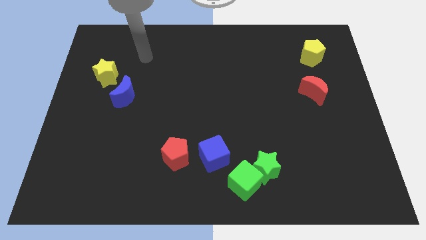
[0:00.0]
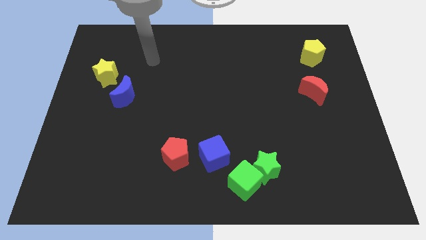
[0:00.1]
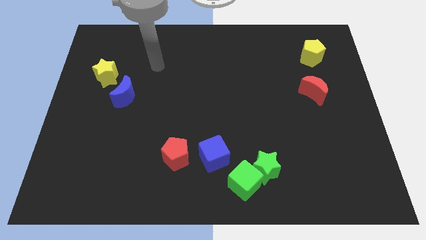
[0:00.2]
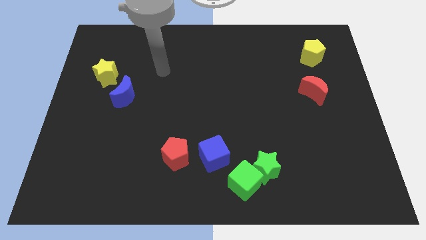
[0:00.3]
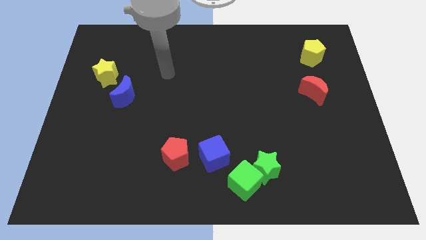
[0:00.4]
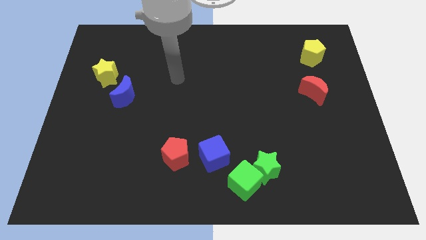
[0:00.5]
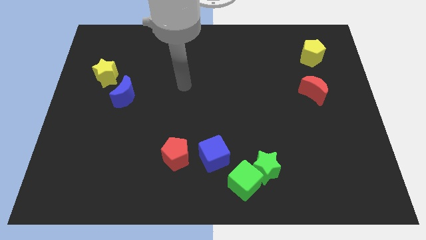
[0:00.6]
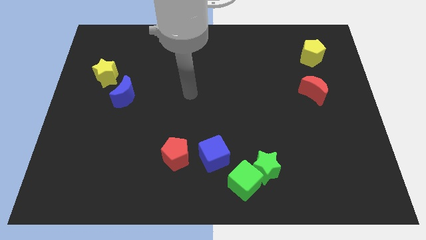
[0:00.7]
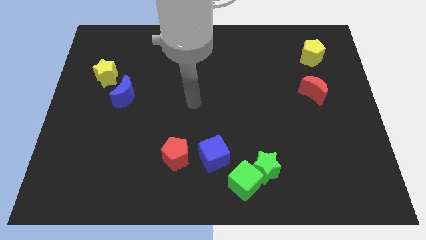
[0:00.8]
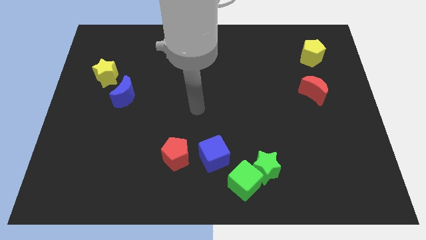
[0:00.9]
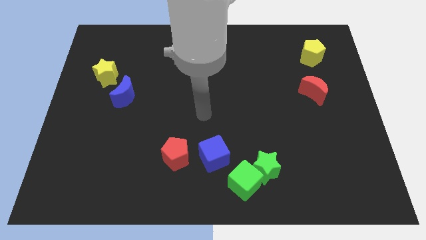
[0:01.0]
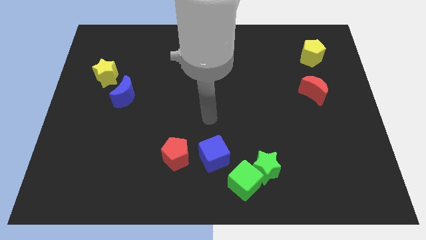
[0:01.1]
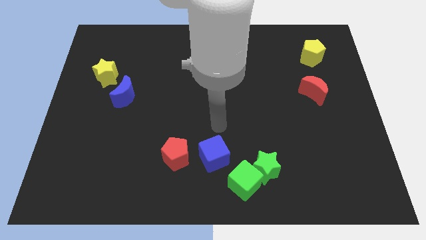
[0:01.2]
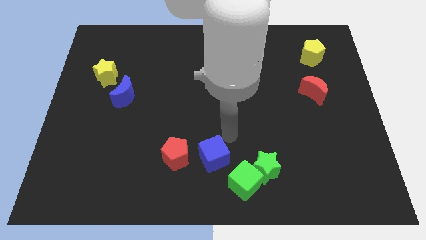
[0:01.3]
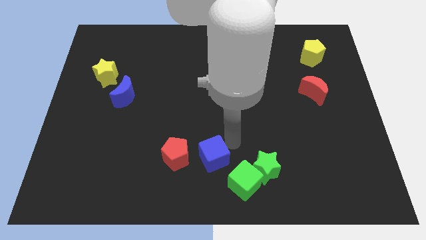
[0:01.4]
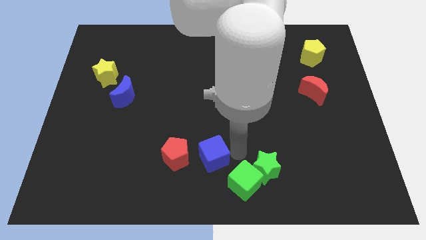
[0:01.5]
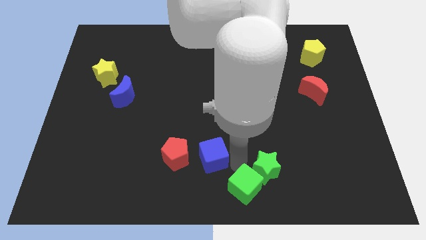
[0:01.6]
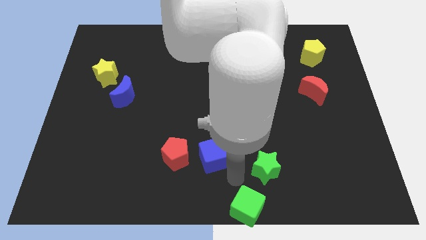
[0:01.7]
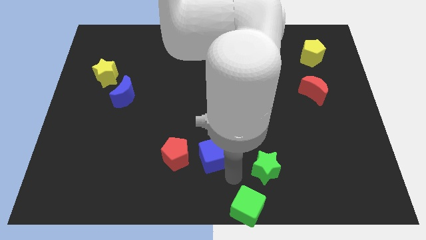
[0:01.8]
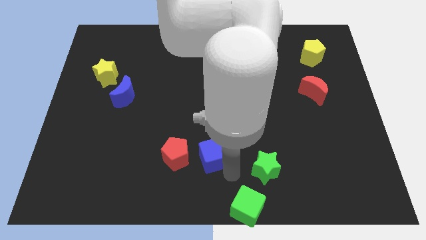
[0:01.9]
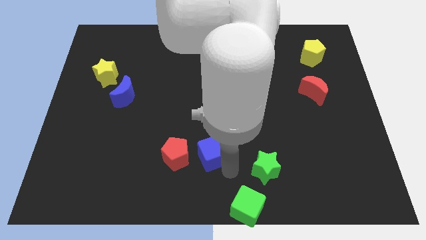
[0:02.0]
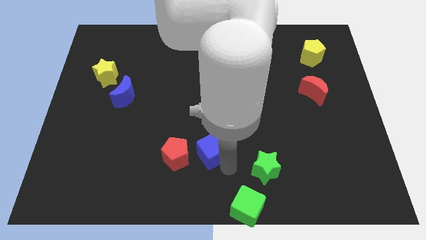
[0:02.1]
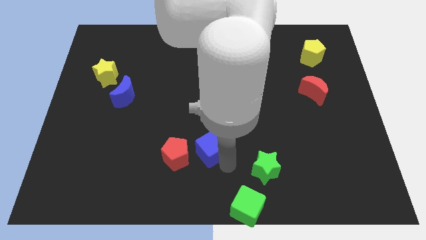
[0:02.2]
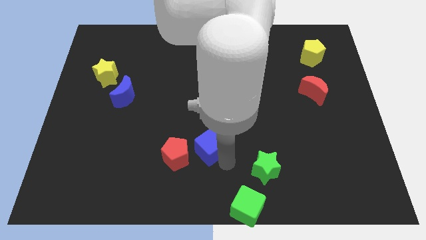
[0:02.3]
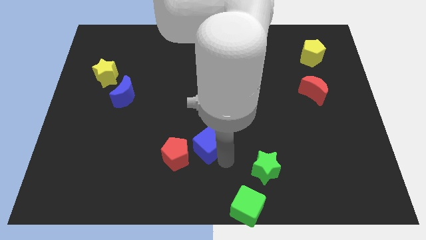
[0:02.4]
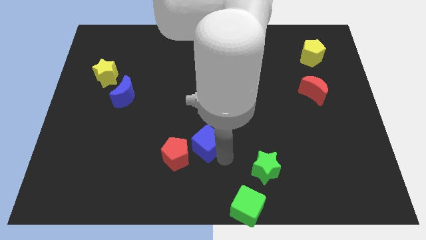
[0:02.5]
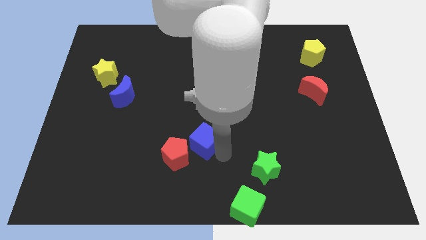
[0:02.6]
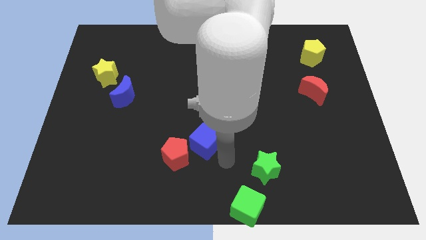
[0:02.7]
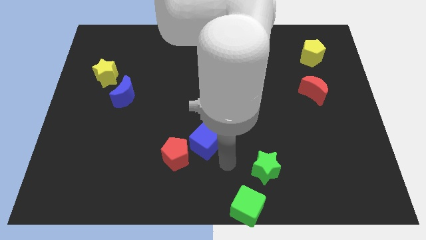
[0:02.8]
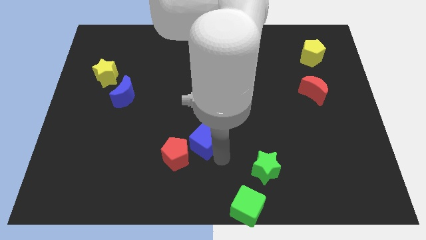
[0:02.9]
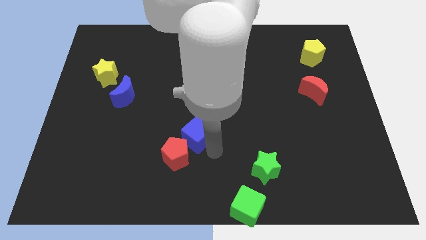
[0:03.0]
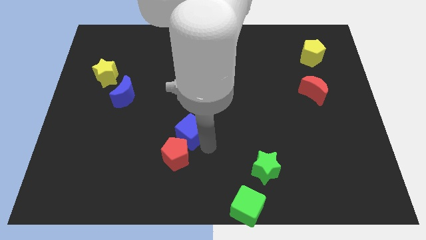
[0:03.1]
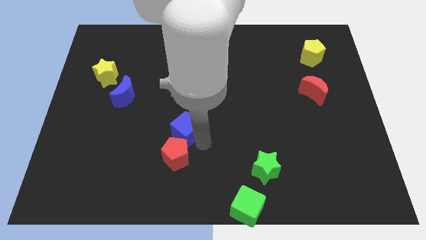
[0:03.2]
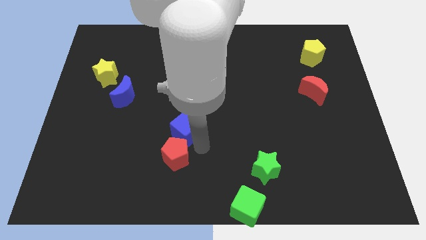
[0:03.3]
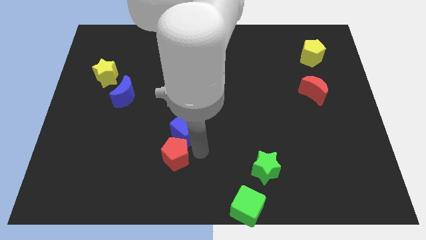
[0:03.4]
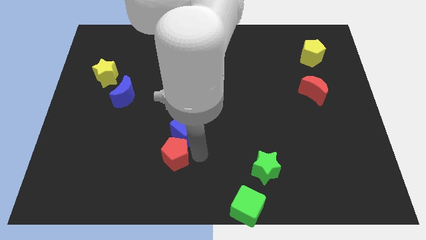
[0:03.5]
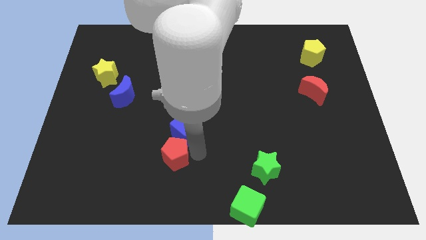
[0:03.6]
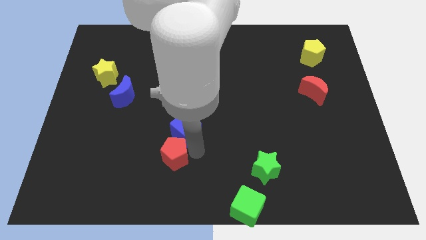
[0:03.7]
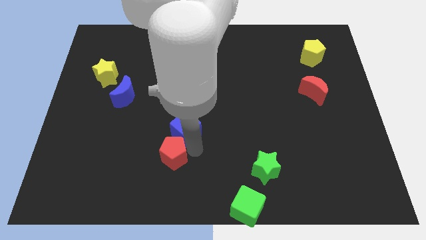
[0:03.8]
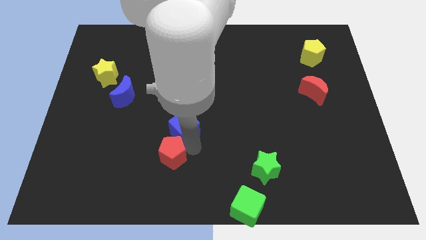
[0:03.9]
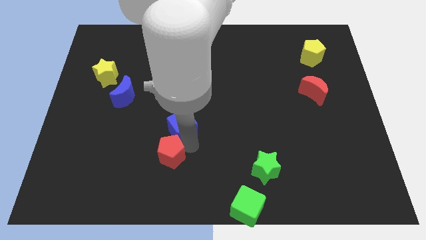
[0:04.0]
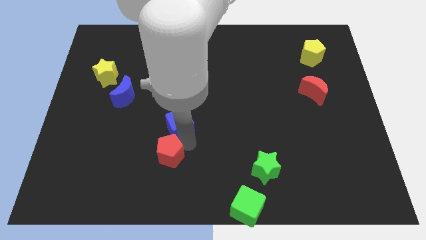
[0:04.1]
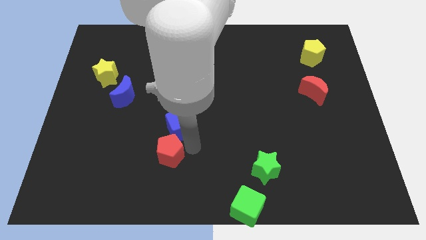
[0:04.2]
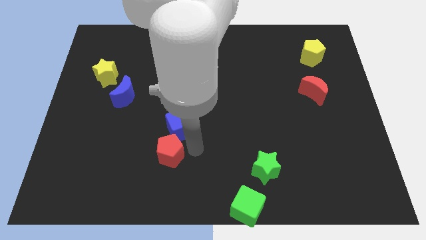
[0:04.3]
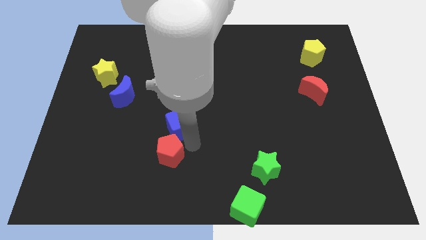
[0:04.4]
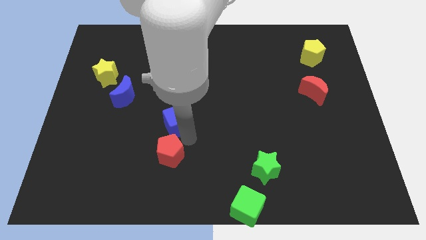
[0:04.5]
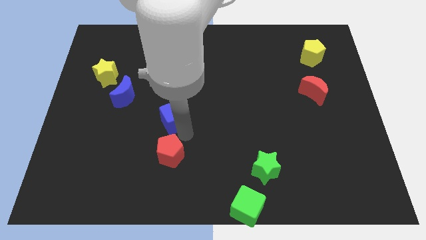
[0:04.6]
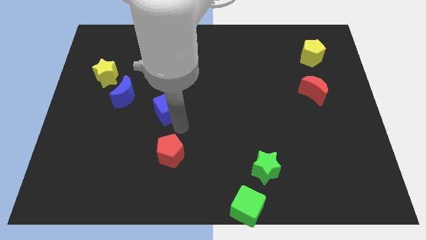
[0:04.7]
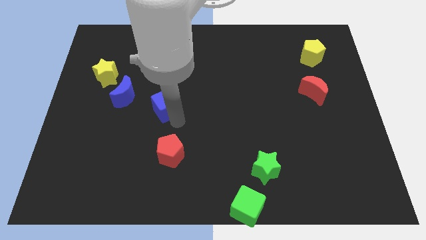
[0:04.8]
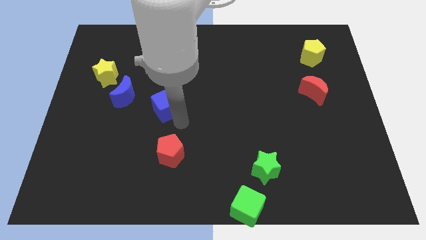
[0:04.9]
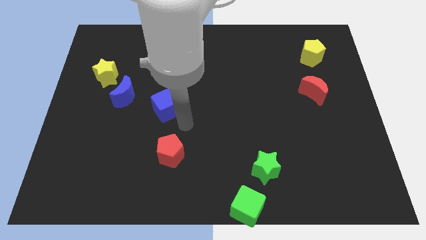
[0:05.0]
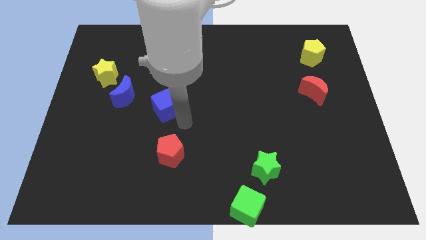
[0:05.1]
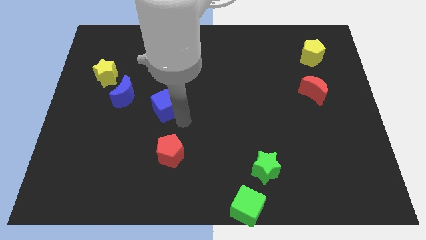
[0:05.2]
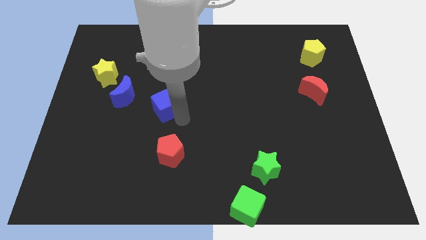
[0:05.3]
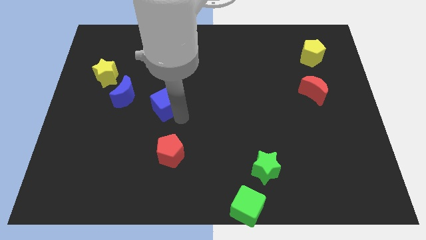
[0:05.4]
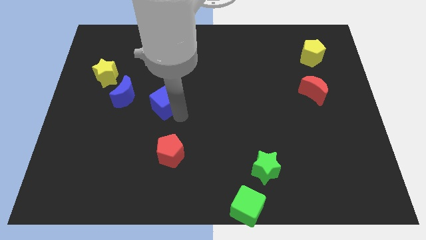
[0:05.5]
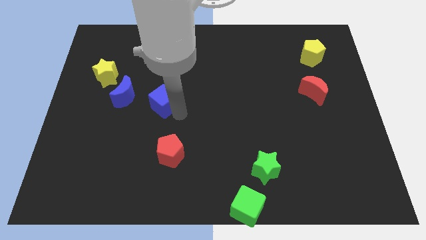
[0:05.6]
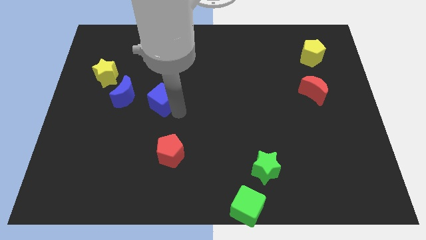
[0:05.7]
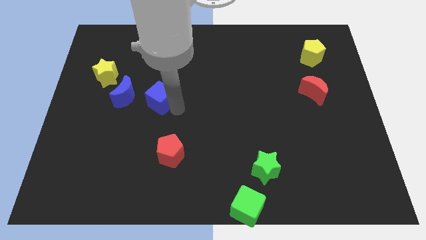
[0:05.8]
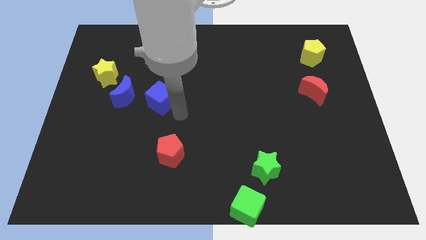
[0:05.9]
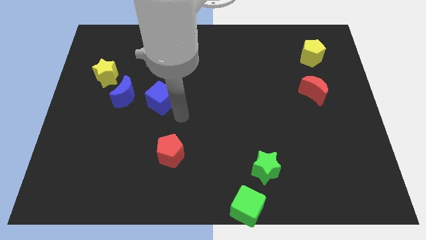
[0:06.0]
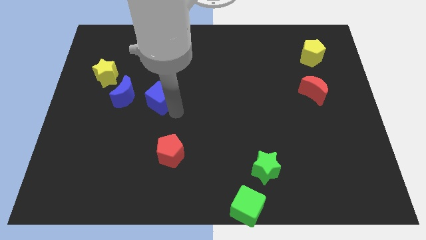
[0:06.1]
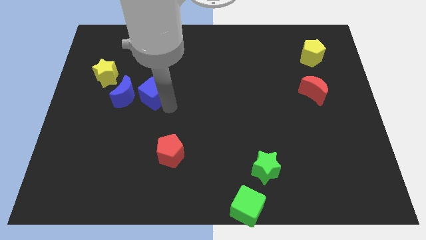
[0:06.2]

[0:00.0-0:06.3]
push the blue cube diagonally up and left

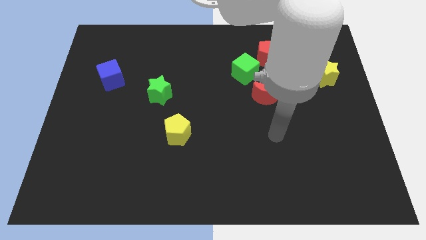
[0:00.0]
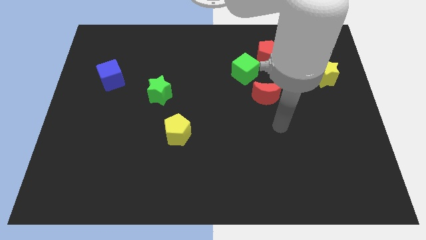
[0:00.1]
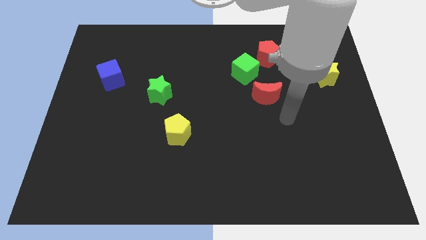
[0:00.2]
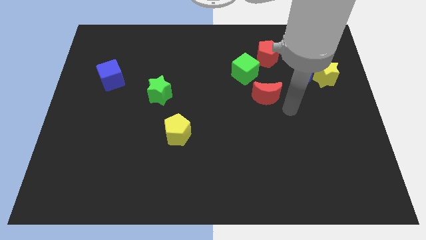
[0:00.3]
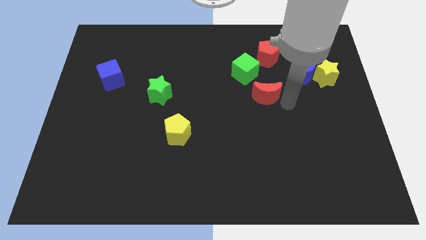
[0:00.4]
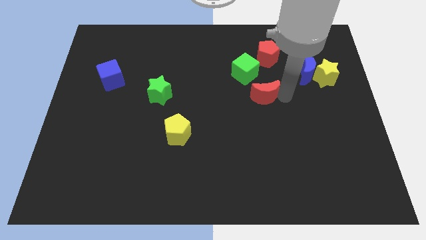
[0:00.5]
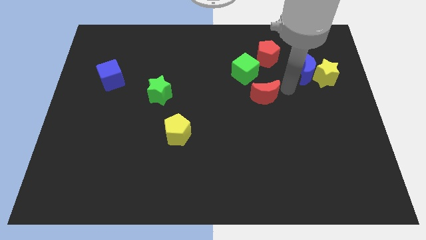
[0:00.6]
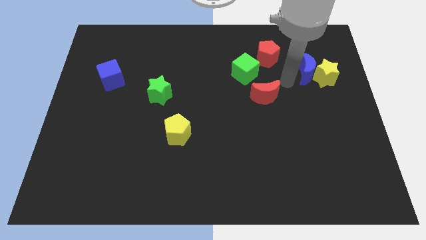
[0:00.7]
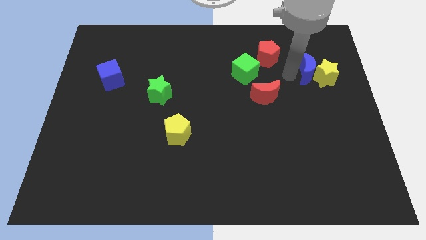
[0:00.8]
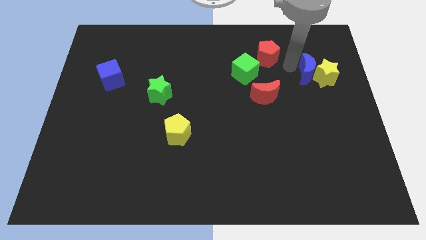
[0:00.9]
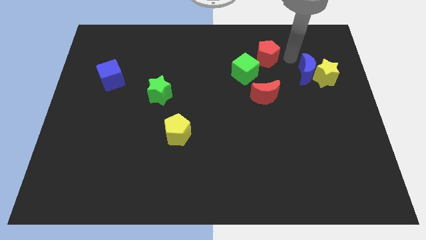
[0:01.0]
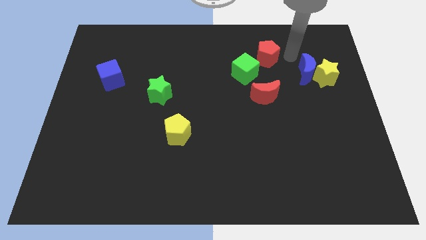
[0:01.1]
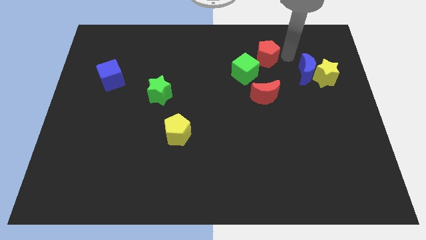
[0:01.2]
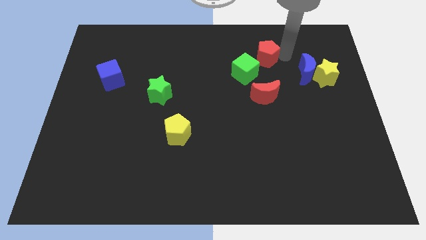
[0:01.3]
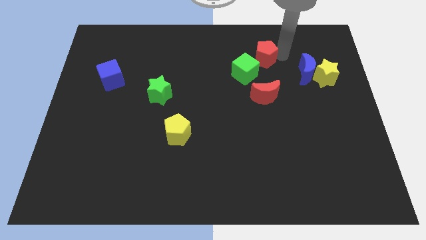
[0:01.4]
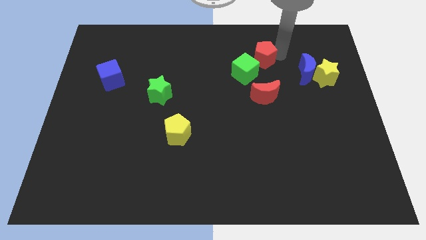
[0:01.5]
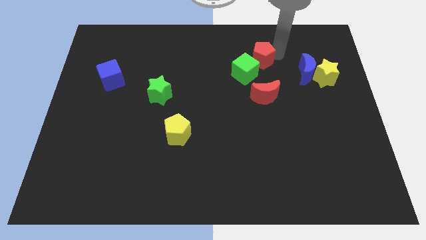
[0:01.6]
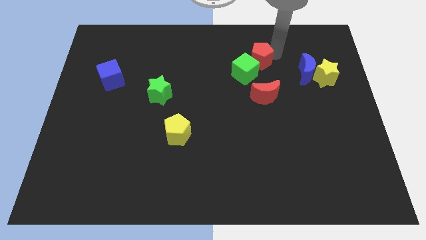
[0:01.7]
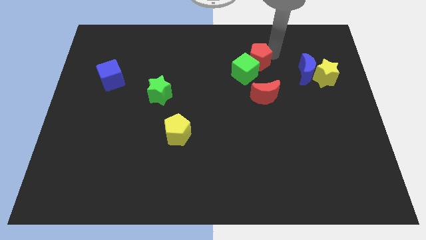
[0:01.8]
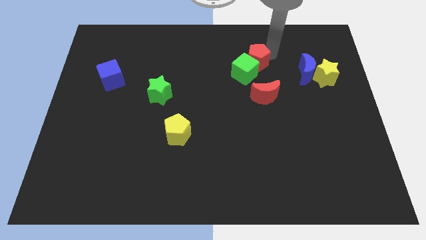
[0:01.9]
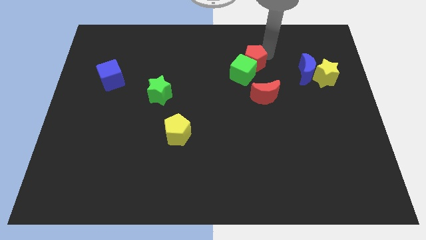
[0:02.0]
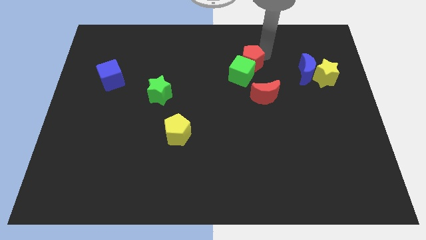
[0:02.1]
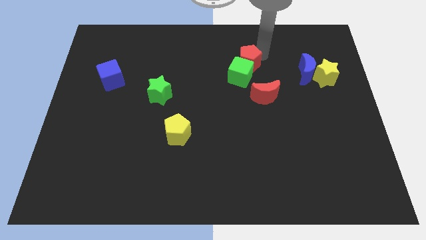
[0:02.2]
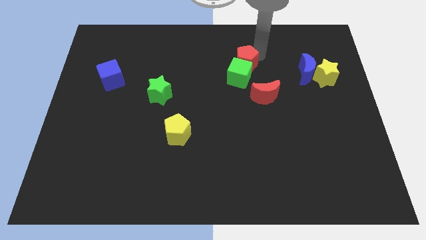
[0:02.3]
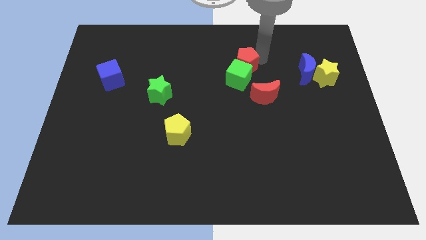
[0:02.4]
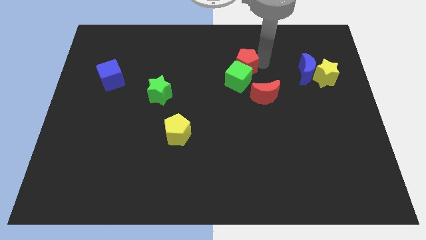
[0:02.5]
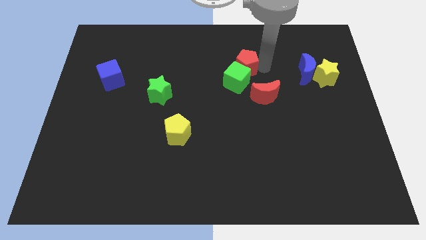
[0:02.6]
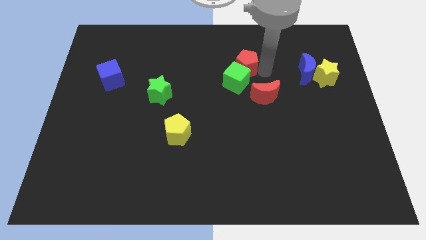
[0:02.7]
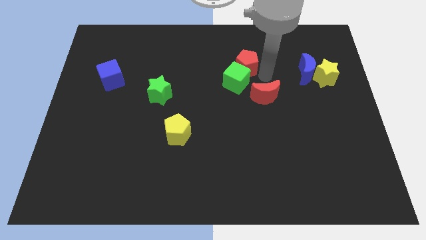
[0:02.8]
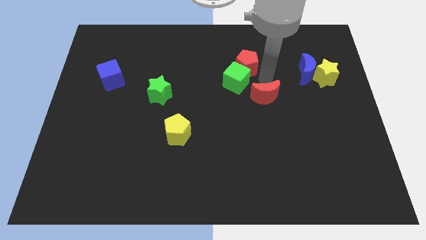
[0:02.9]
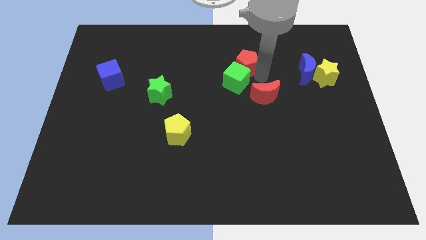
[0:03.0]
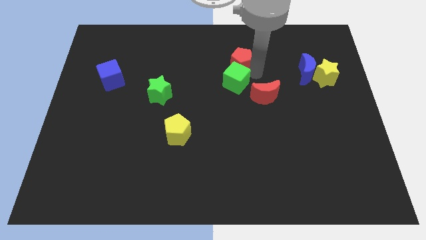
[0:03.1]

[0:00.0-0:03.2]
slightly push the red pentagon to the left
